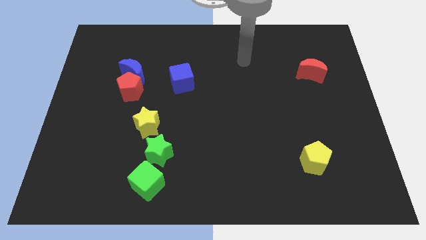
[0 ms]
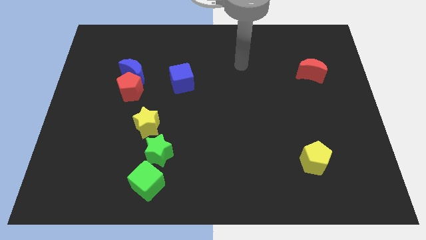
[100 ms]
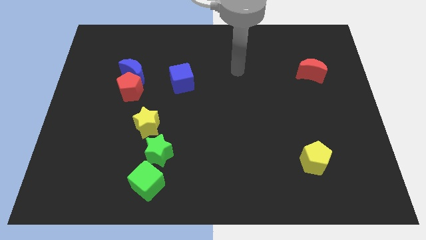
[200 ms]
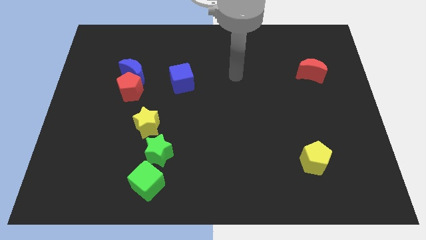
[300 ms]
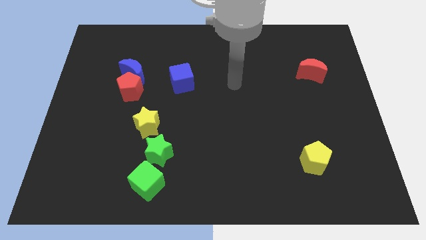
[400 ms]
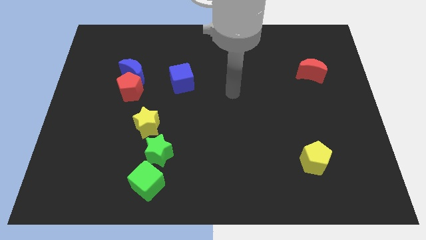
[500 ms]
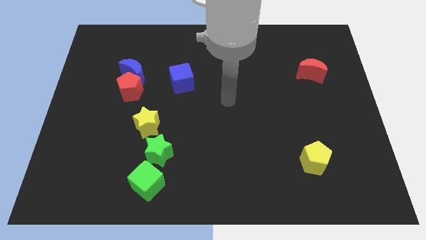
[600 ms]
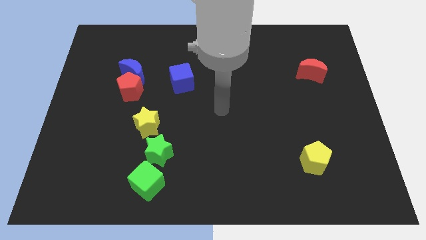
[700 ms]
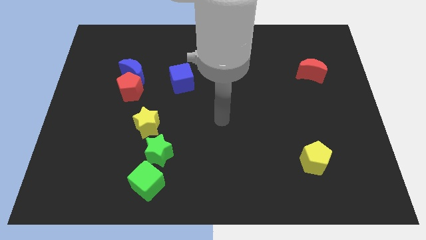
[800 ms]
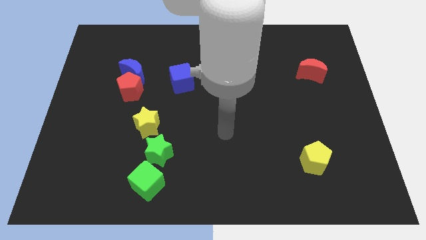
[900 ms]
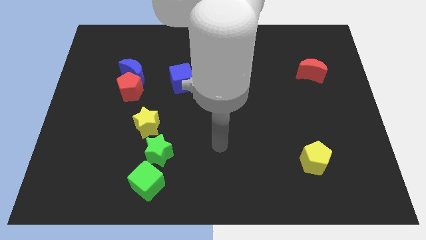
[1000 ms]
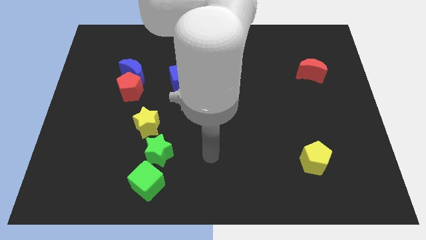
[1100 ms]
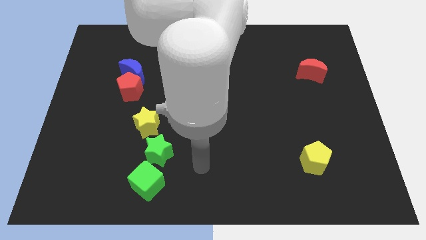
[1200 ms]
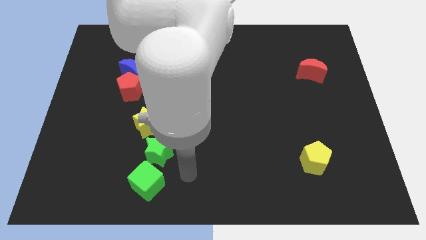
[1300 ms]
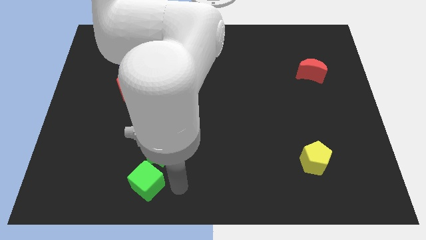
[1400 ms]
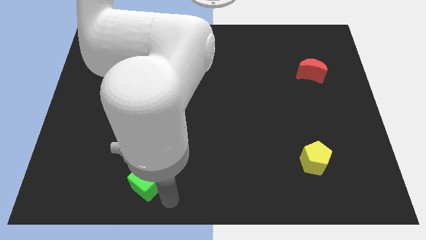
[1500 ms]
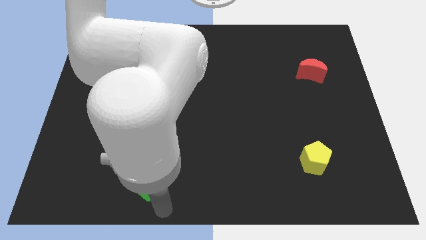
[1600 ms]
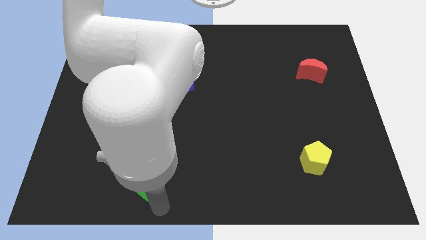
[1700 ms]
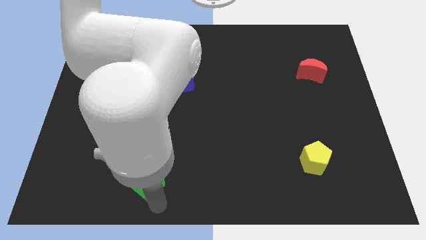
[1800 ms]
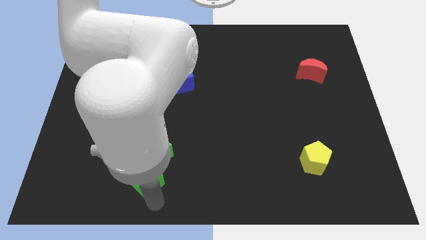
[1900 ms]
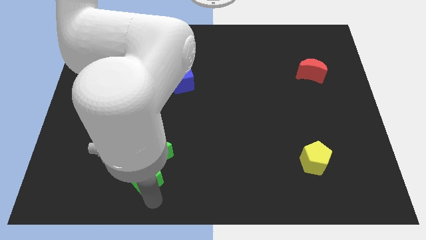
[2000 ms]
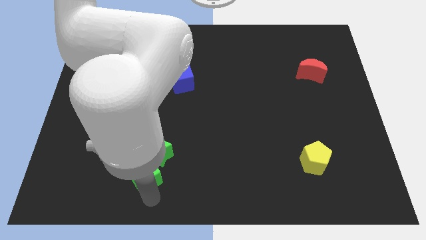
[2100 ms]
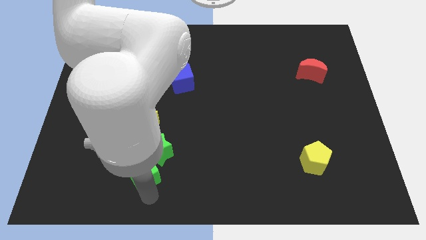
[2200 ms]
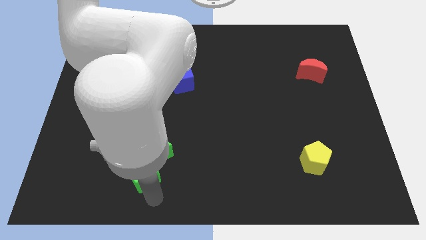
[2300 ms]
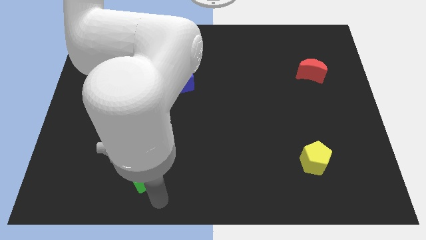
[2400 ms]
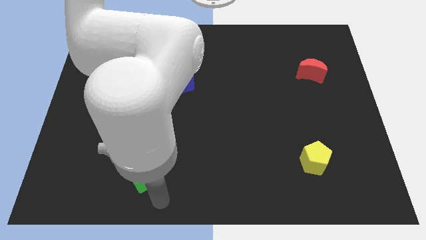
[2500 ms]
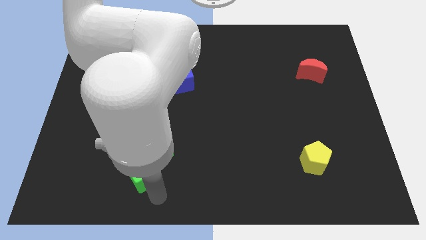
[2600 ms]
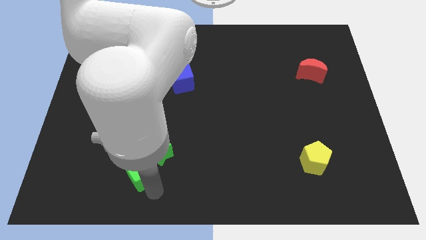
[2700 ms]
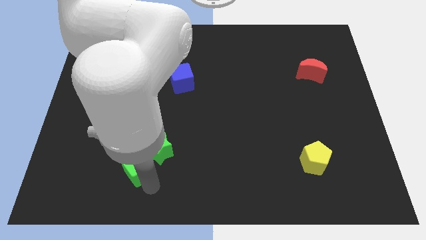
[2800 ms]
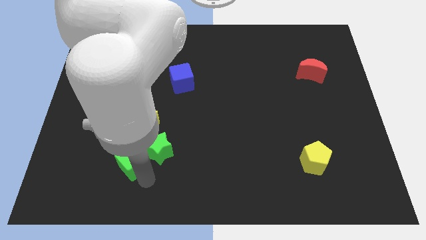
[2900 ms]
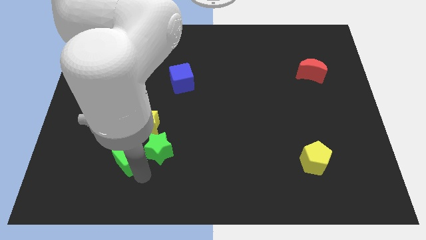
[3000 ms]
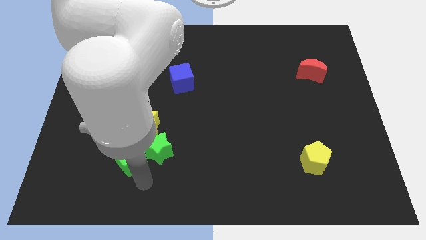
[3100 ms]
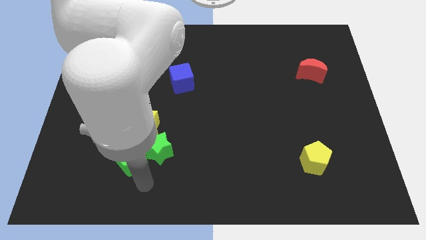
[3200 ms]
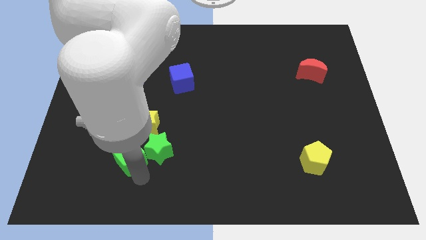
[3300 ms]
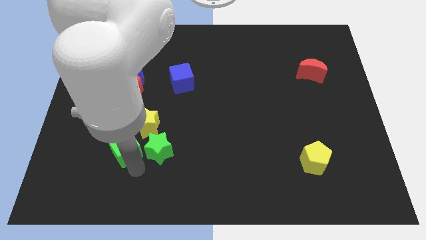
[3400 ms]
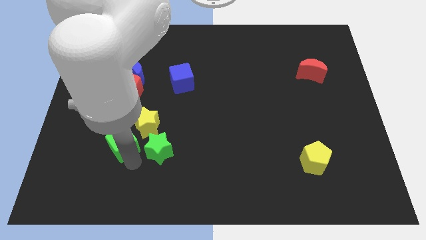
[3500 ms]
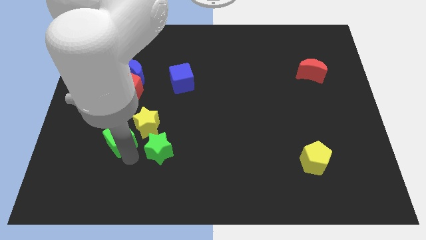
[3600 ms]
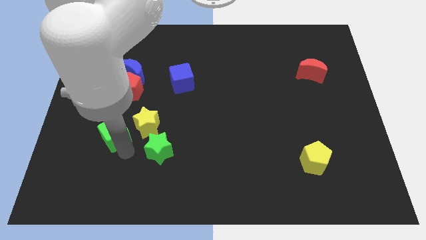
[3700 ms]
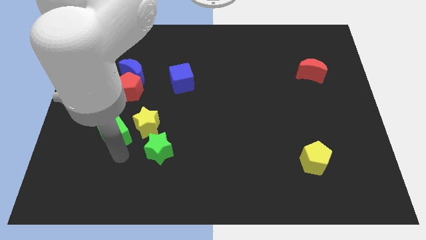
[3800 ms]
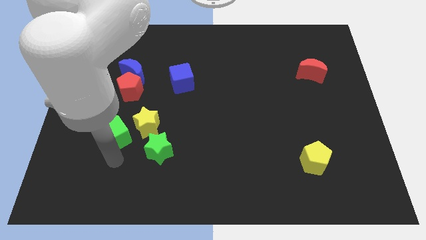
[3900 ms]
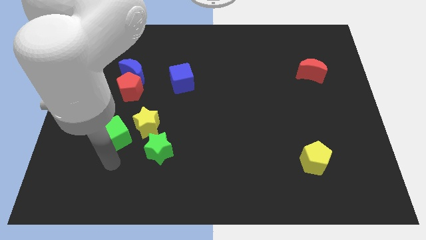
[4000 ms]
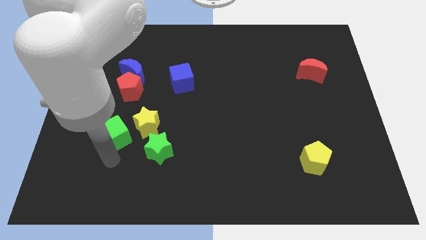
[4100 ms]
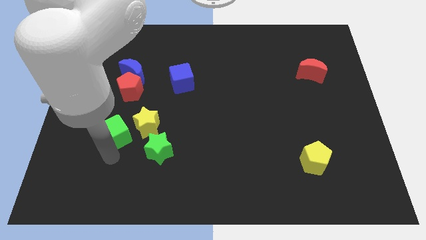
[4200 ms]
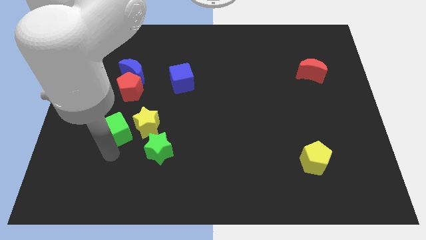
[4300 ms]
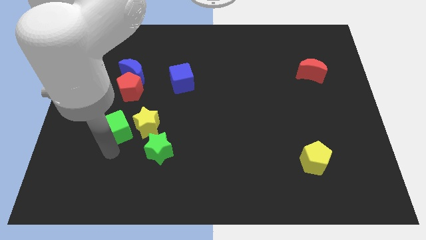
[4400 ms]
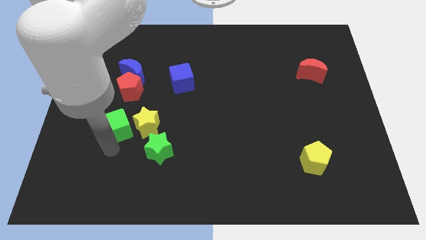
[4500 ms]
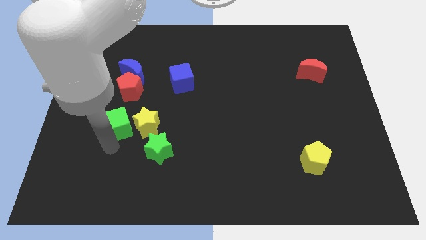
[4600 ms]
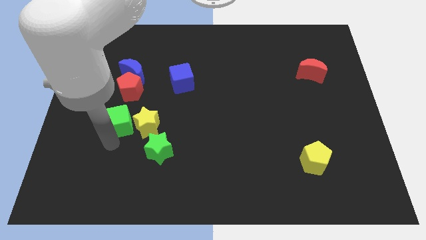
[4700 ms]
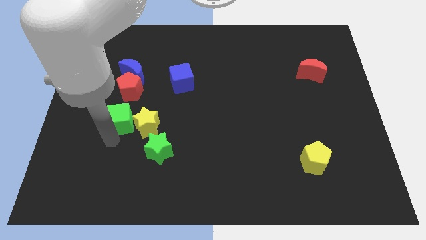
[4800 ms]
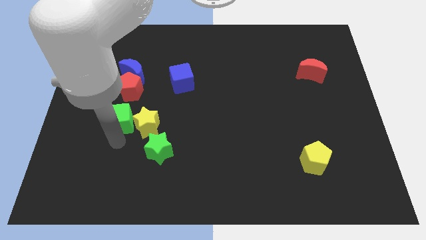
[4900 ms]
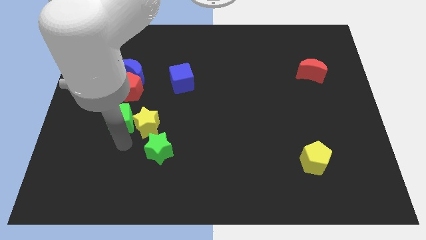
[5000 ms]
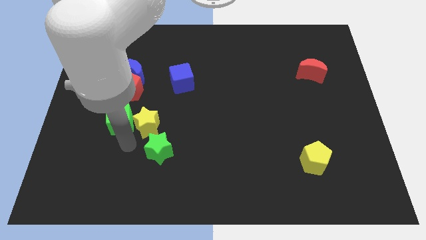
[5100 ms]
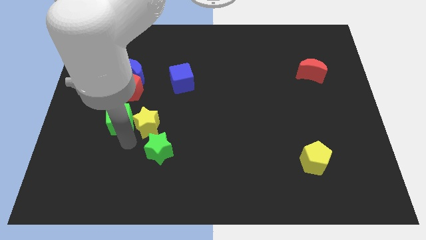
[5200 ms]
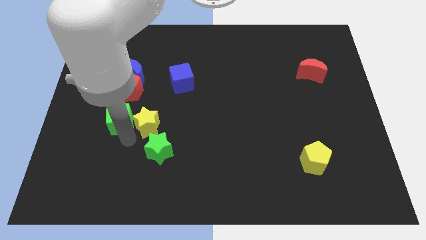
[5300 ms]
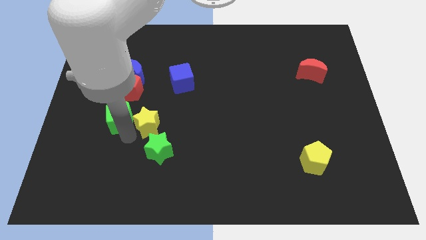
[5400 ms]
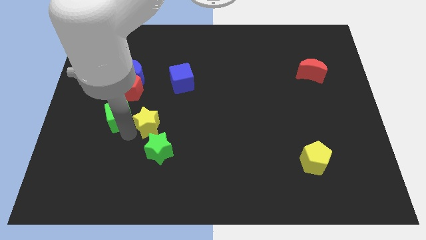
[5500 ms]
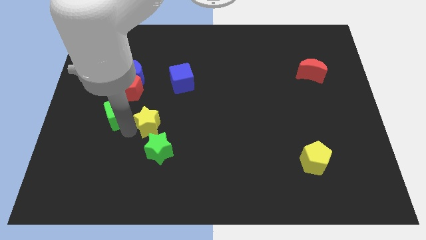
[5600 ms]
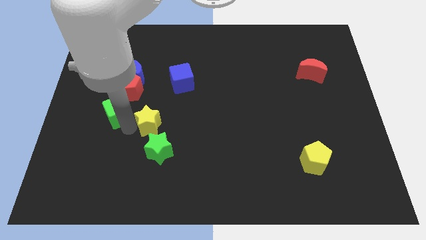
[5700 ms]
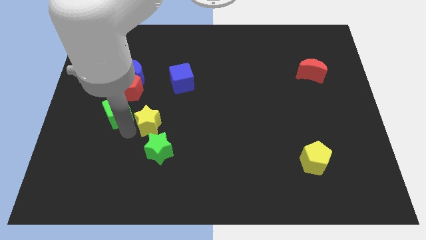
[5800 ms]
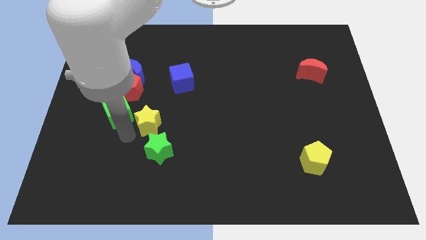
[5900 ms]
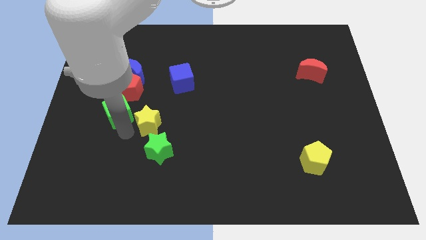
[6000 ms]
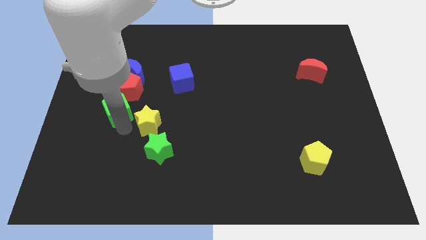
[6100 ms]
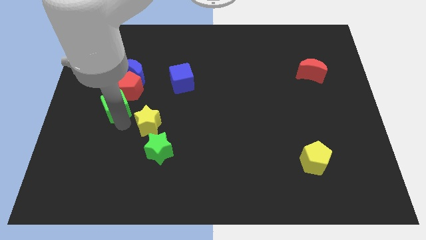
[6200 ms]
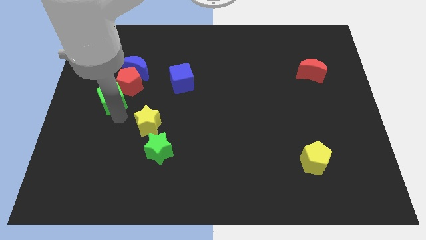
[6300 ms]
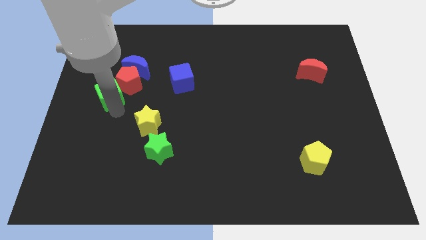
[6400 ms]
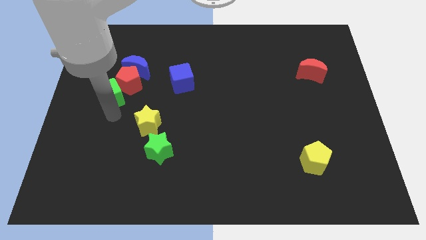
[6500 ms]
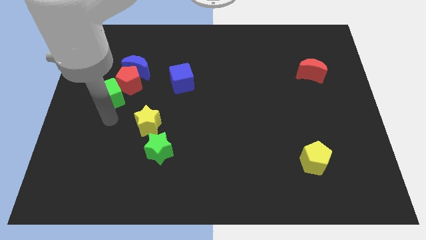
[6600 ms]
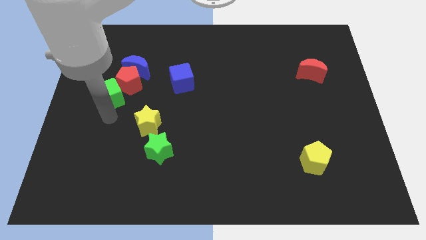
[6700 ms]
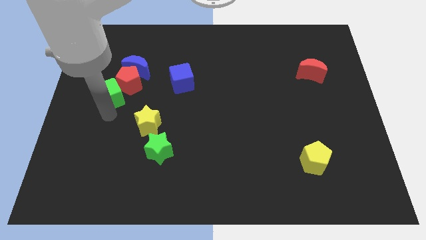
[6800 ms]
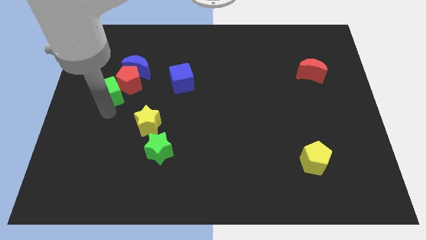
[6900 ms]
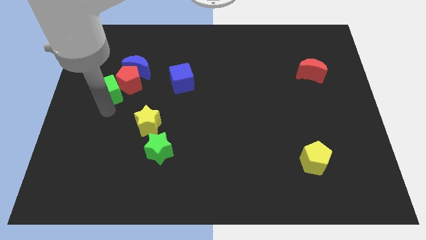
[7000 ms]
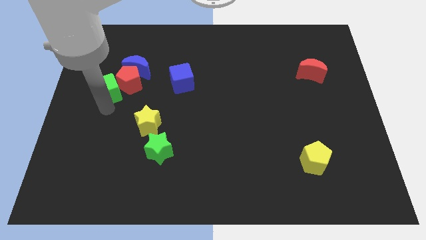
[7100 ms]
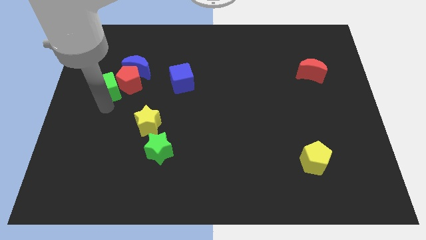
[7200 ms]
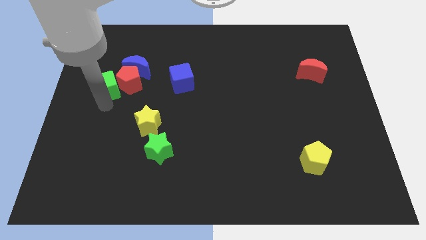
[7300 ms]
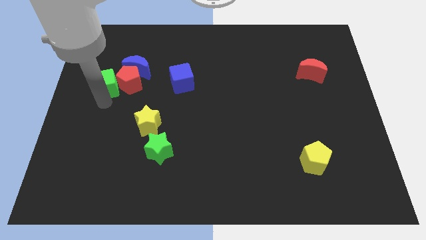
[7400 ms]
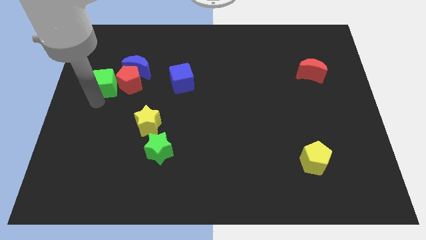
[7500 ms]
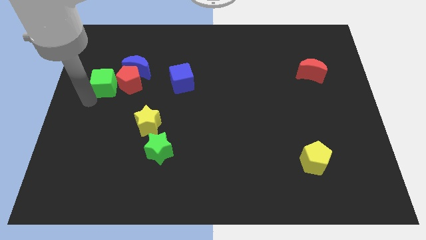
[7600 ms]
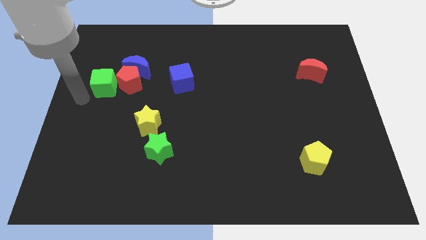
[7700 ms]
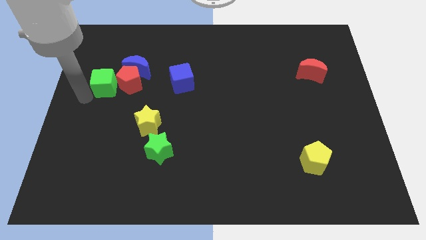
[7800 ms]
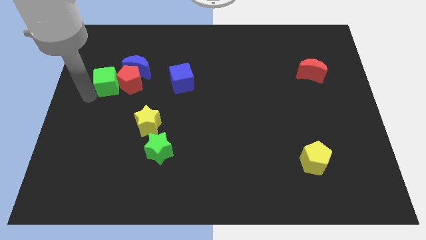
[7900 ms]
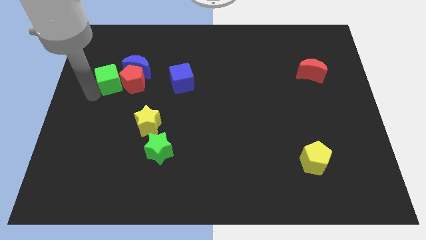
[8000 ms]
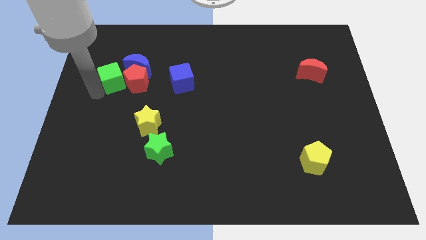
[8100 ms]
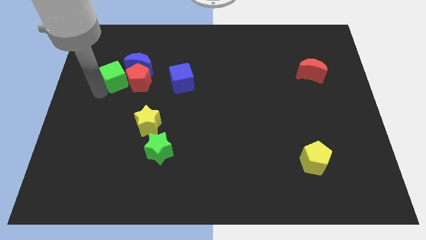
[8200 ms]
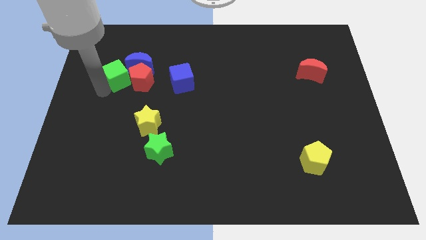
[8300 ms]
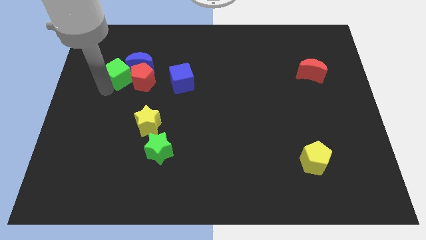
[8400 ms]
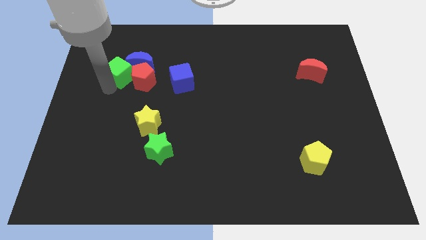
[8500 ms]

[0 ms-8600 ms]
push the green cube next to the blue moon
